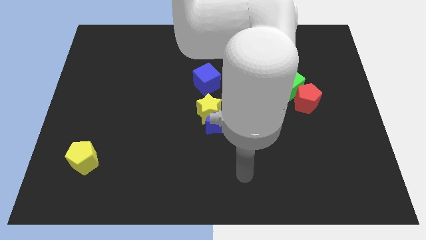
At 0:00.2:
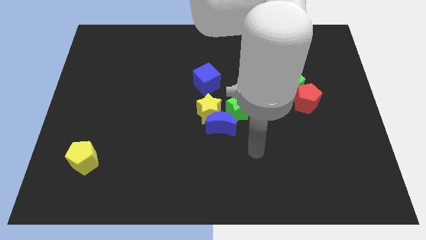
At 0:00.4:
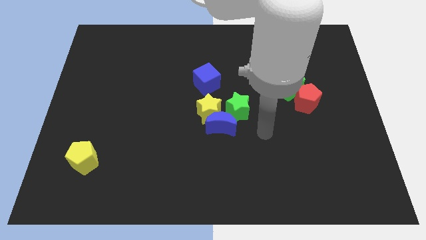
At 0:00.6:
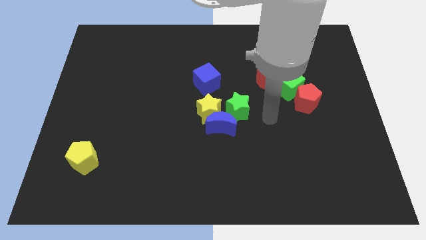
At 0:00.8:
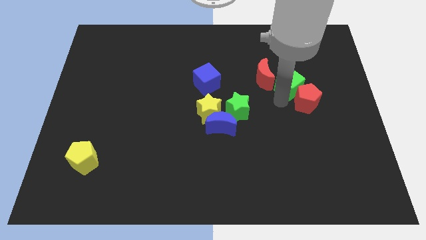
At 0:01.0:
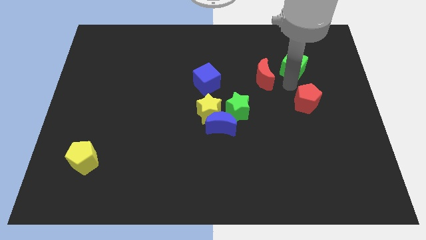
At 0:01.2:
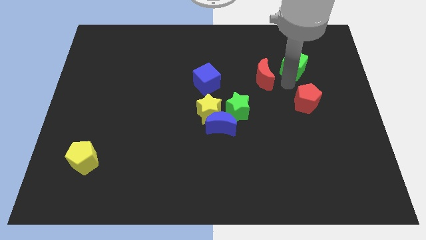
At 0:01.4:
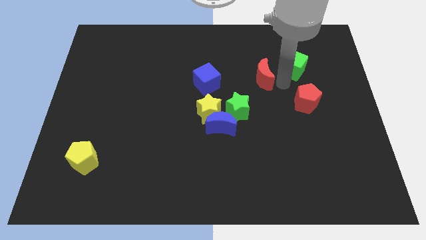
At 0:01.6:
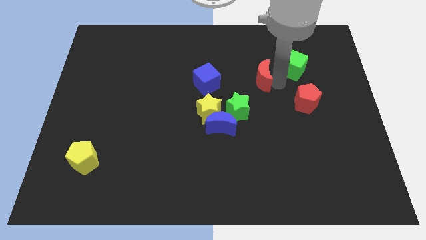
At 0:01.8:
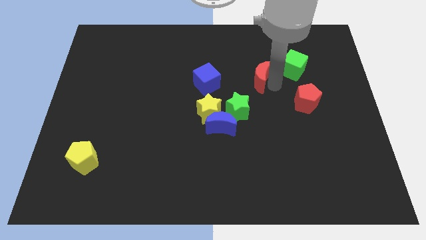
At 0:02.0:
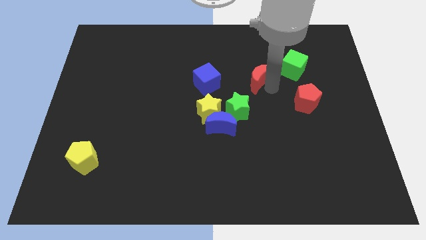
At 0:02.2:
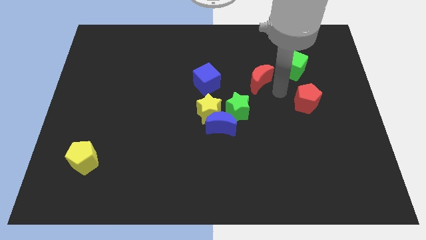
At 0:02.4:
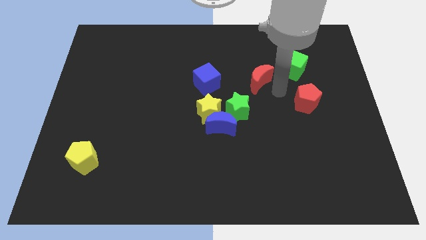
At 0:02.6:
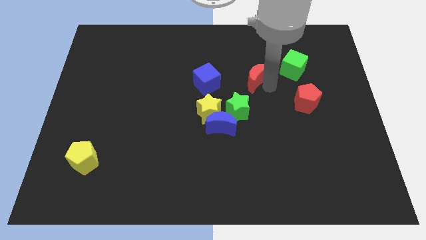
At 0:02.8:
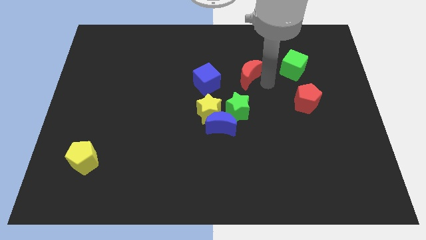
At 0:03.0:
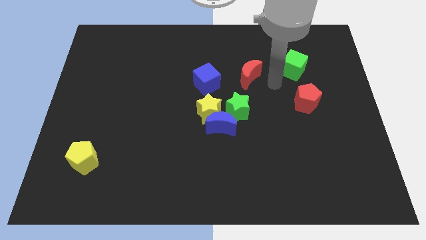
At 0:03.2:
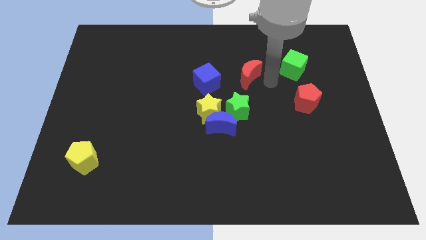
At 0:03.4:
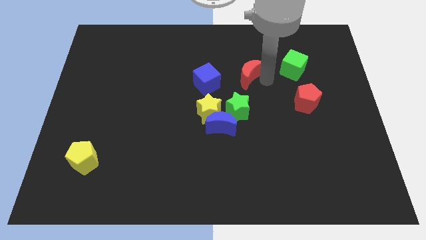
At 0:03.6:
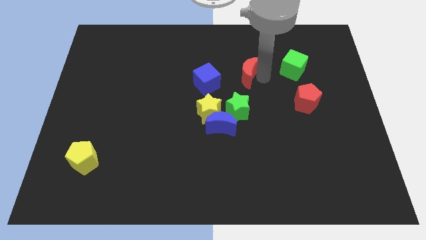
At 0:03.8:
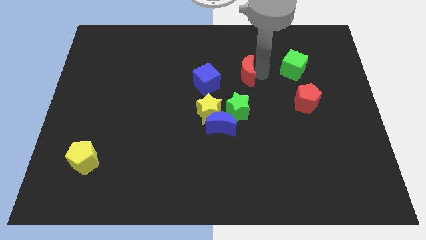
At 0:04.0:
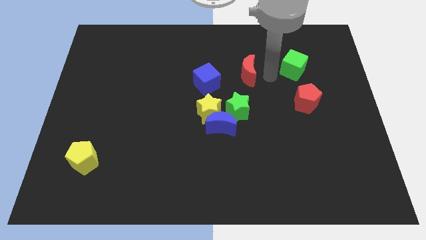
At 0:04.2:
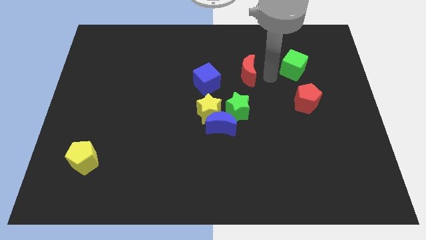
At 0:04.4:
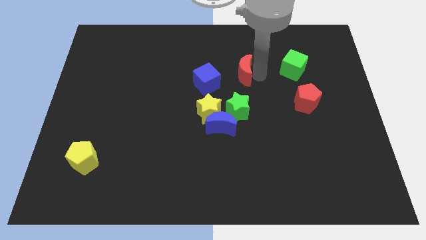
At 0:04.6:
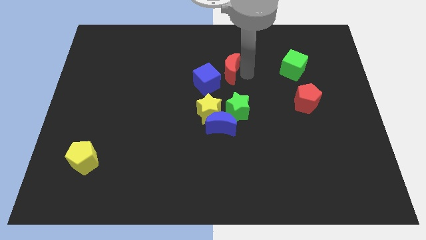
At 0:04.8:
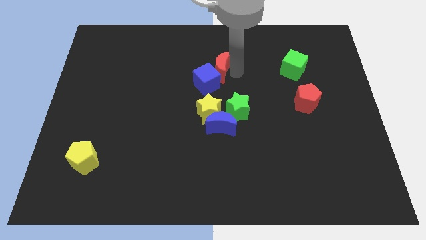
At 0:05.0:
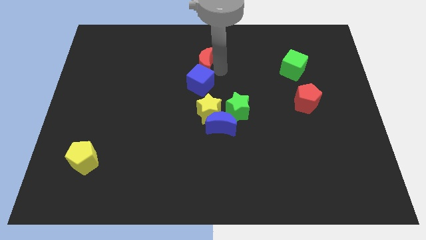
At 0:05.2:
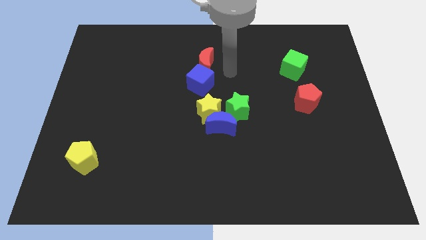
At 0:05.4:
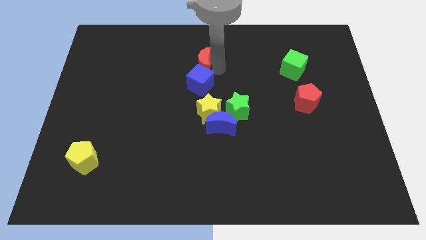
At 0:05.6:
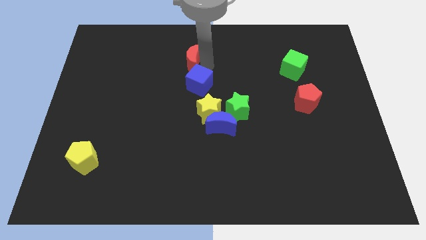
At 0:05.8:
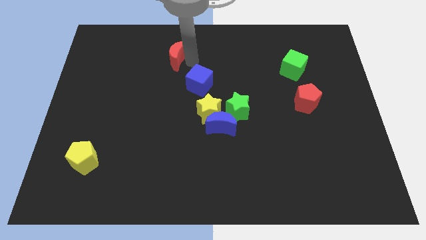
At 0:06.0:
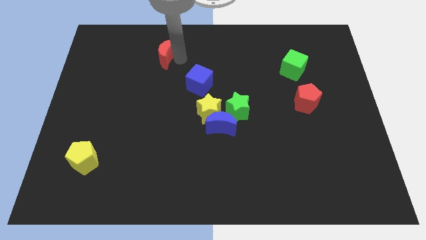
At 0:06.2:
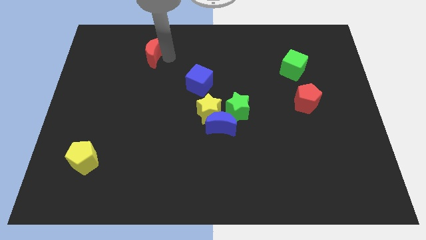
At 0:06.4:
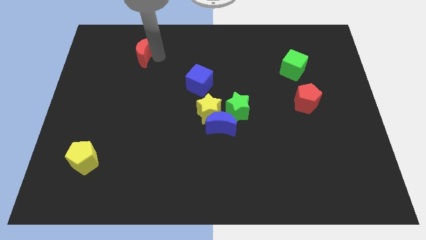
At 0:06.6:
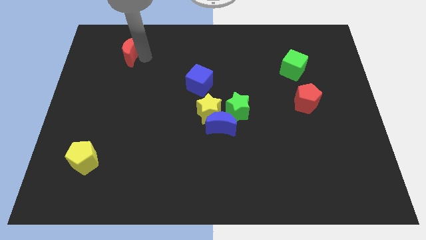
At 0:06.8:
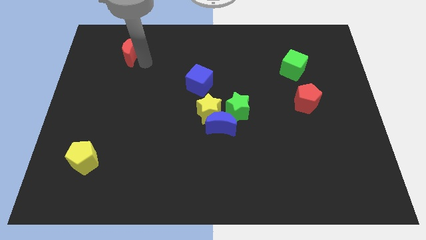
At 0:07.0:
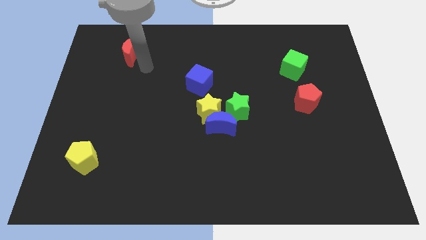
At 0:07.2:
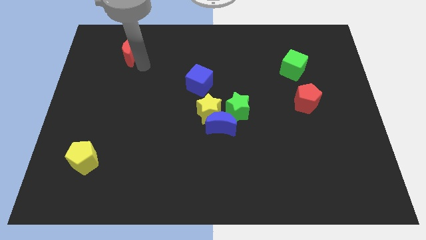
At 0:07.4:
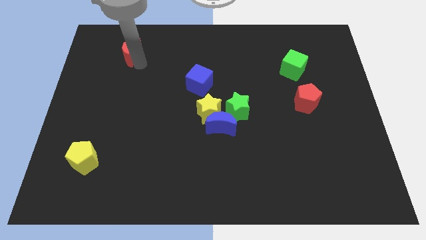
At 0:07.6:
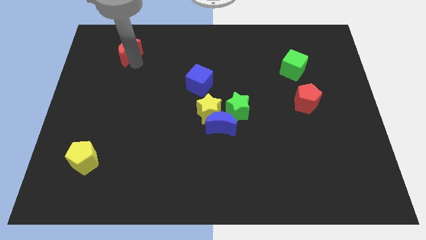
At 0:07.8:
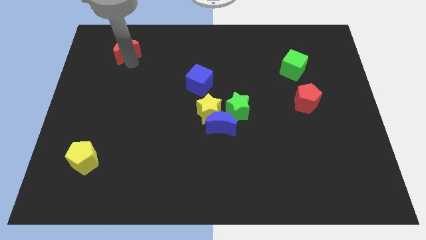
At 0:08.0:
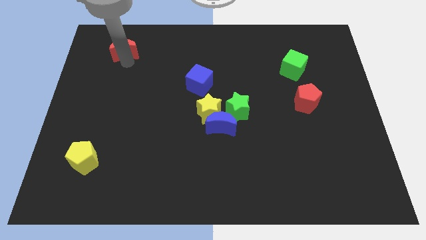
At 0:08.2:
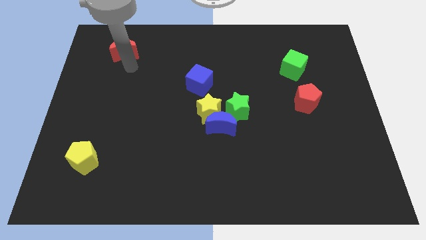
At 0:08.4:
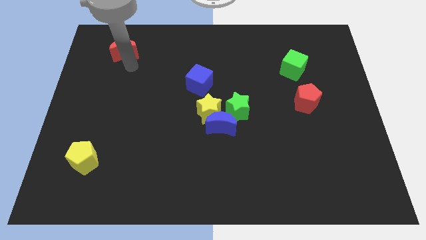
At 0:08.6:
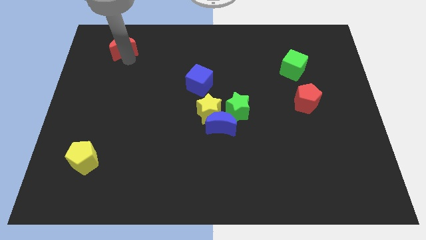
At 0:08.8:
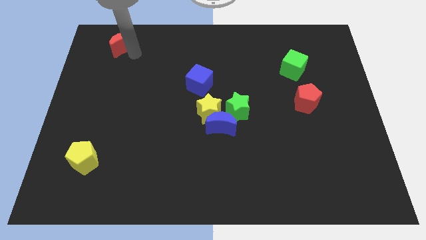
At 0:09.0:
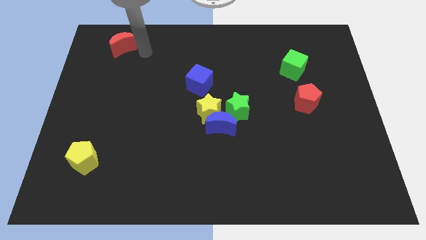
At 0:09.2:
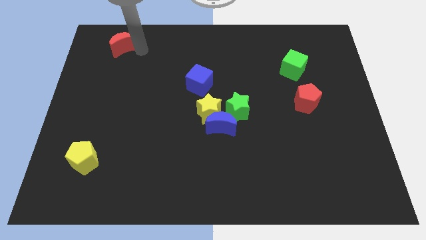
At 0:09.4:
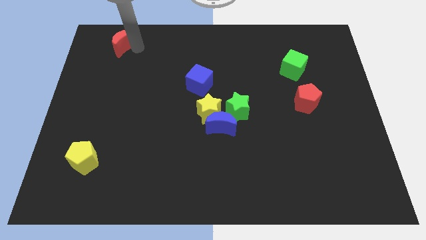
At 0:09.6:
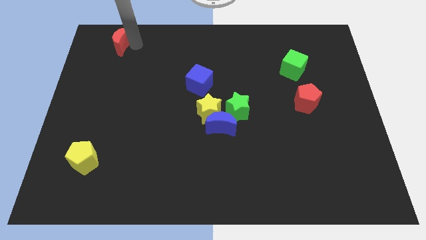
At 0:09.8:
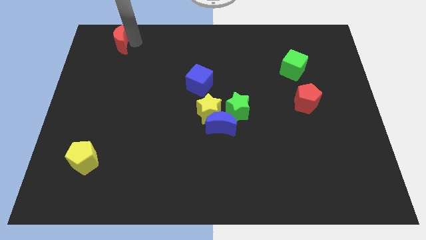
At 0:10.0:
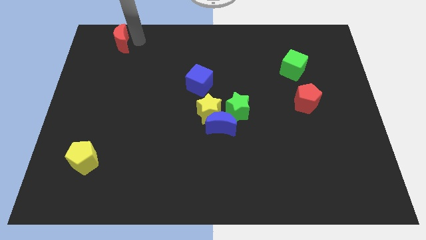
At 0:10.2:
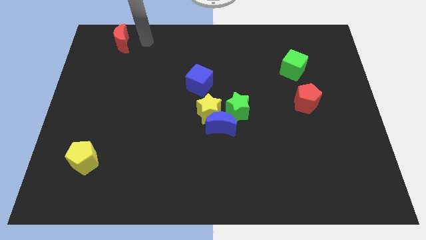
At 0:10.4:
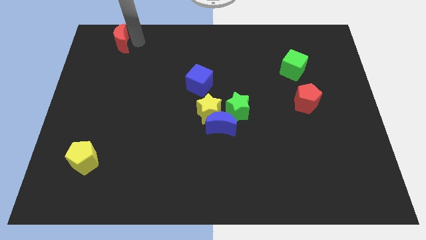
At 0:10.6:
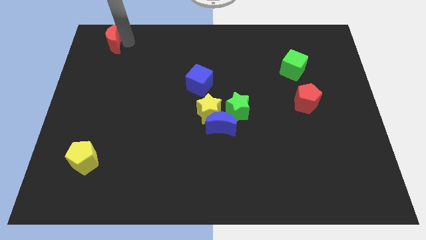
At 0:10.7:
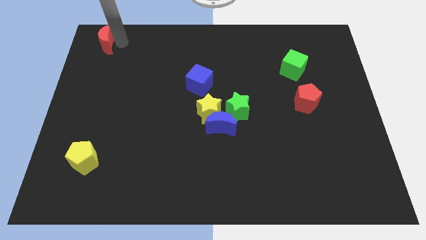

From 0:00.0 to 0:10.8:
slide the red moon to the top left corner

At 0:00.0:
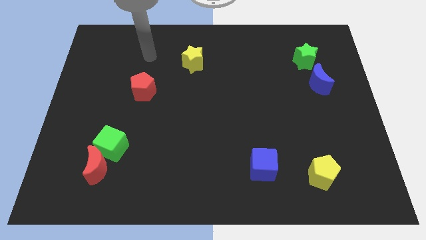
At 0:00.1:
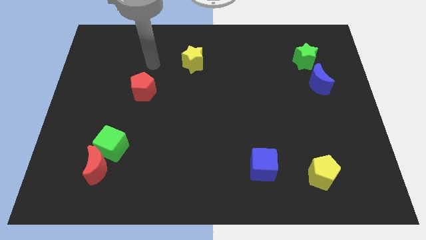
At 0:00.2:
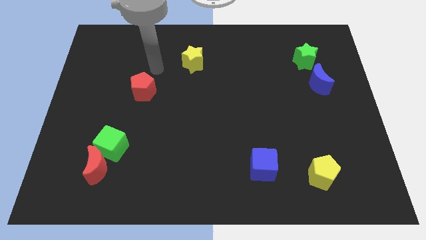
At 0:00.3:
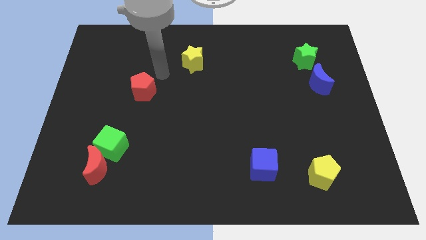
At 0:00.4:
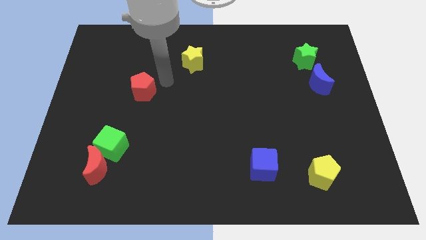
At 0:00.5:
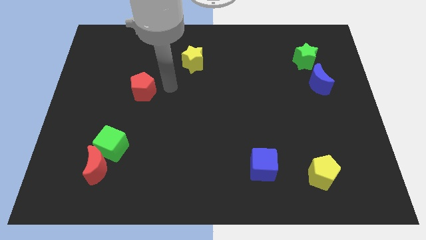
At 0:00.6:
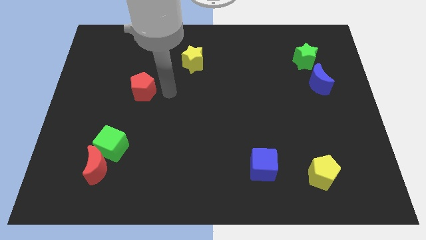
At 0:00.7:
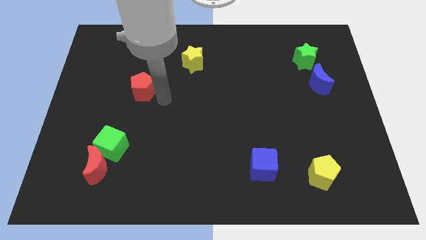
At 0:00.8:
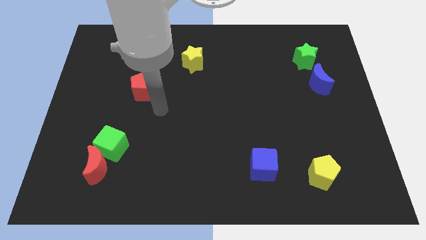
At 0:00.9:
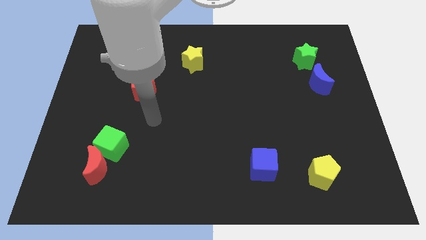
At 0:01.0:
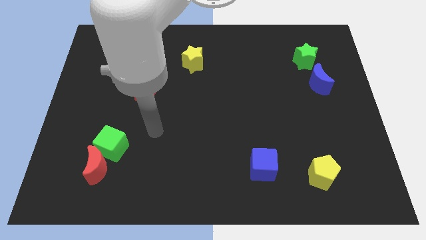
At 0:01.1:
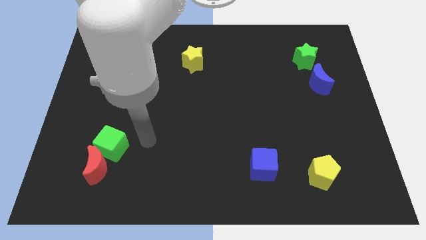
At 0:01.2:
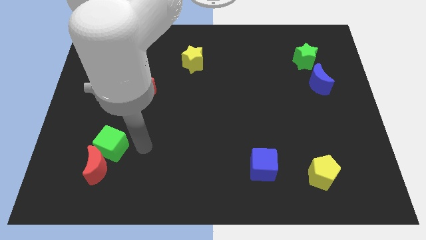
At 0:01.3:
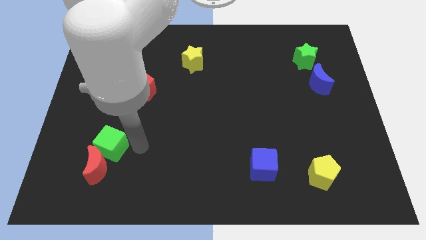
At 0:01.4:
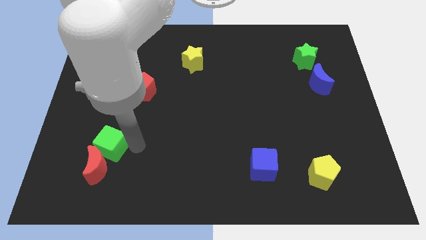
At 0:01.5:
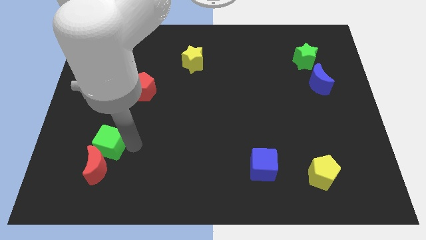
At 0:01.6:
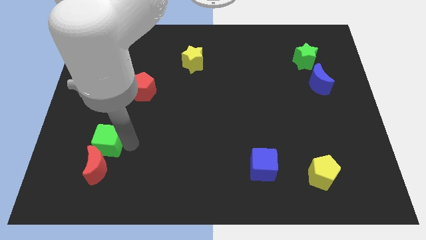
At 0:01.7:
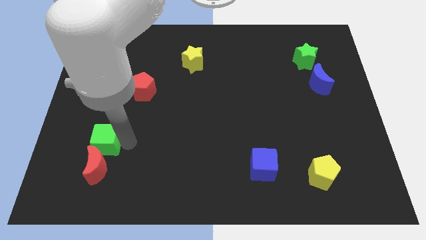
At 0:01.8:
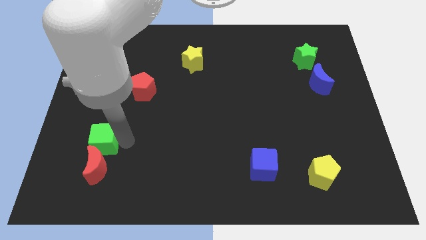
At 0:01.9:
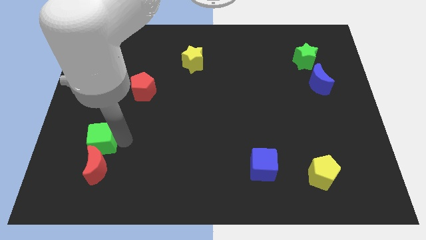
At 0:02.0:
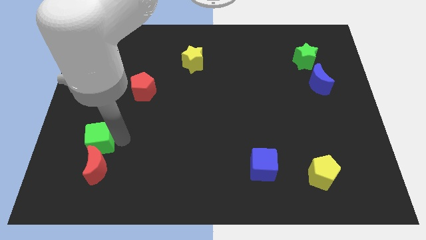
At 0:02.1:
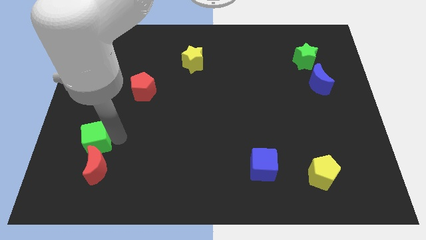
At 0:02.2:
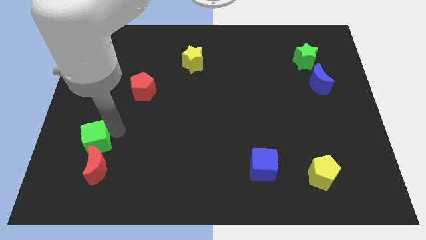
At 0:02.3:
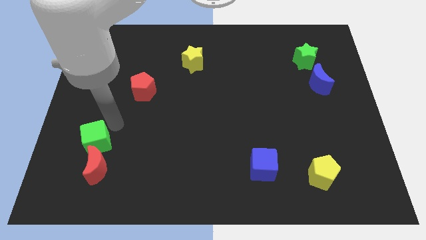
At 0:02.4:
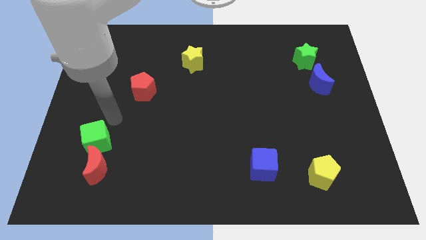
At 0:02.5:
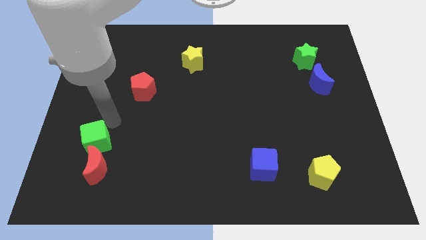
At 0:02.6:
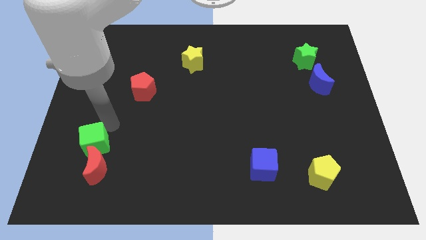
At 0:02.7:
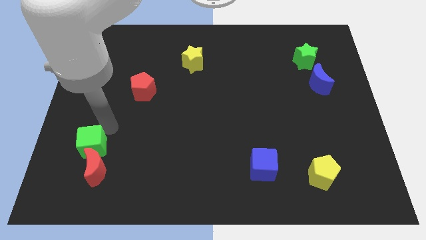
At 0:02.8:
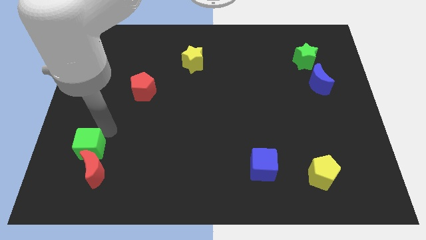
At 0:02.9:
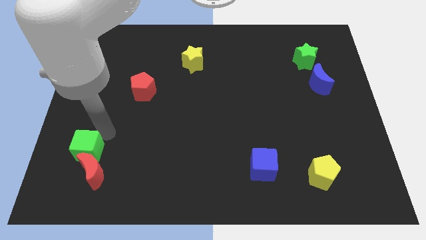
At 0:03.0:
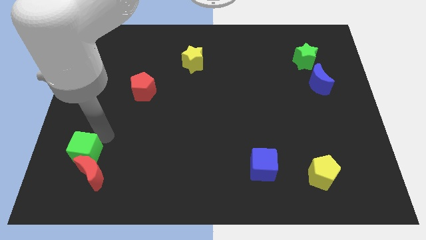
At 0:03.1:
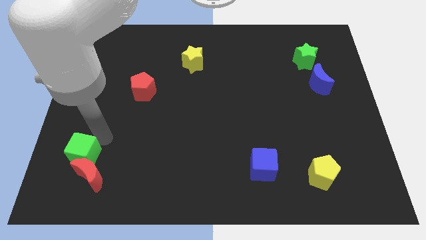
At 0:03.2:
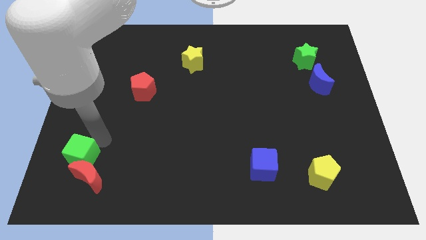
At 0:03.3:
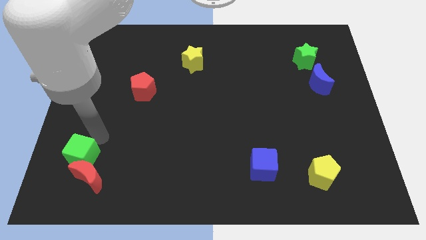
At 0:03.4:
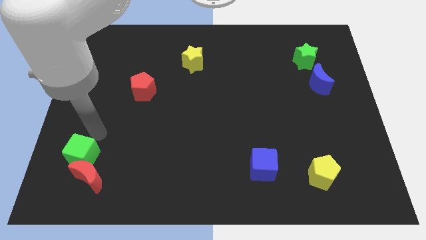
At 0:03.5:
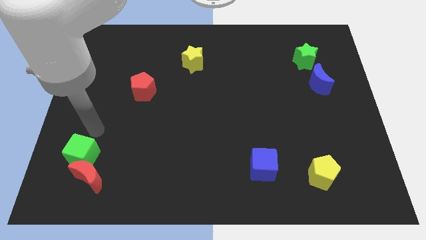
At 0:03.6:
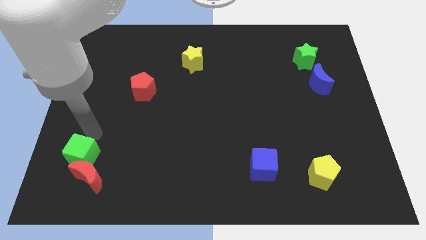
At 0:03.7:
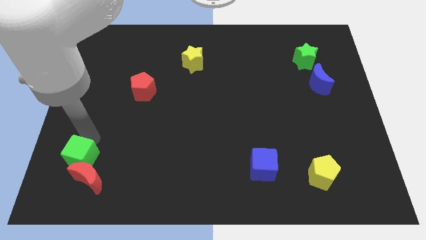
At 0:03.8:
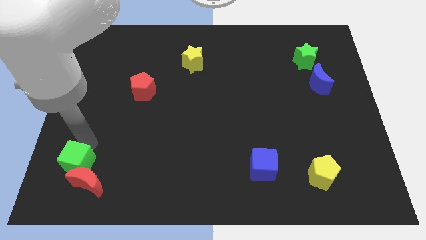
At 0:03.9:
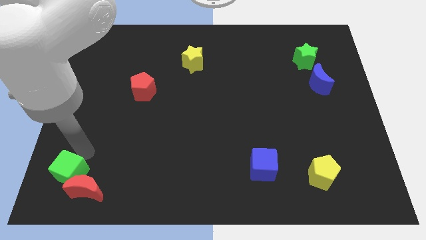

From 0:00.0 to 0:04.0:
move the green cube to the bottom left corner
